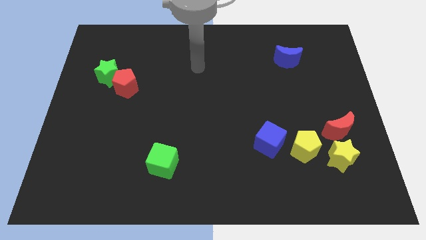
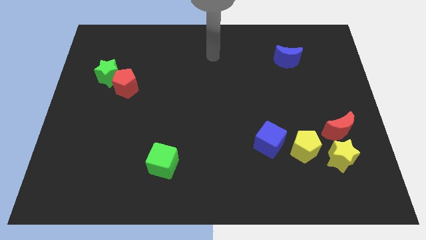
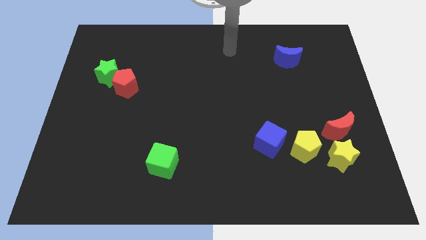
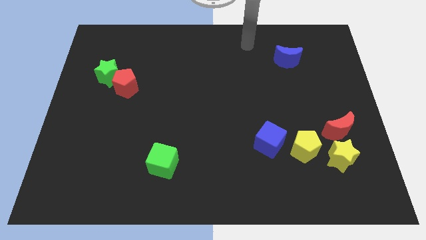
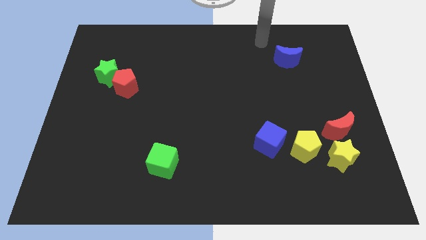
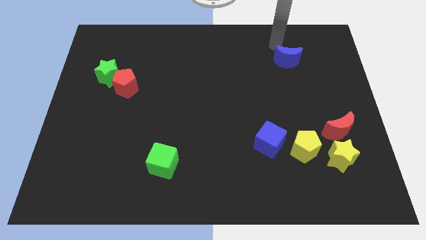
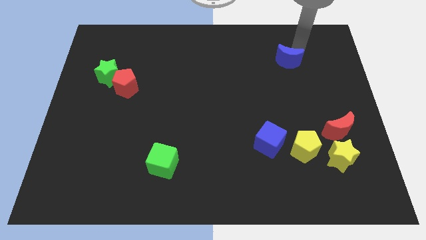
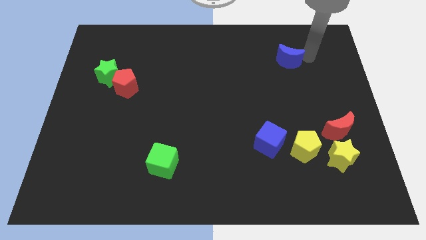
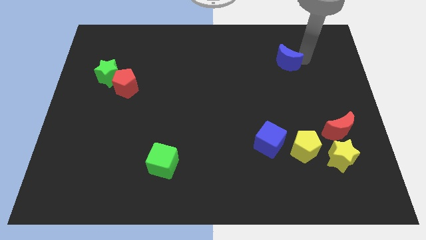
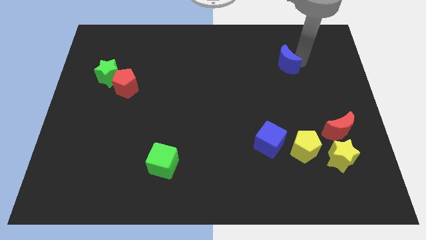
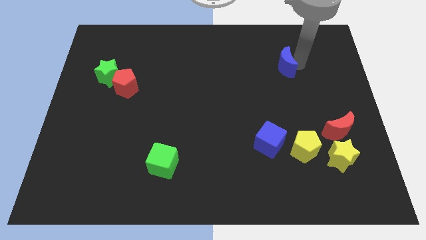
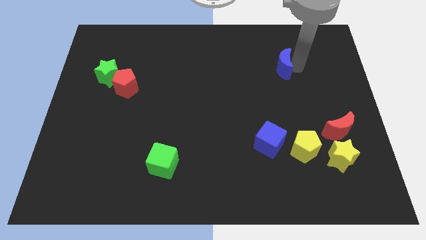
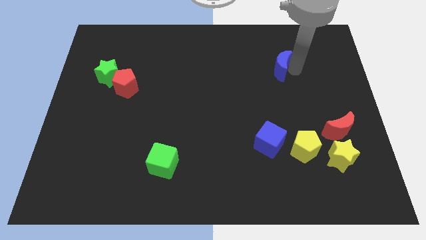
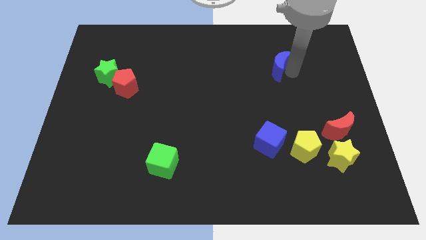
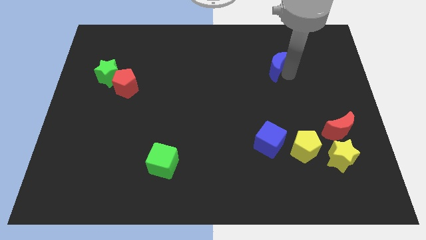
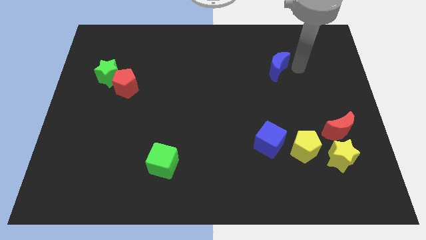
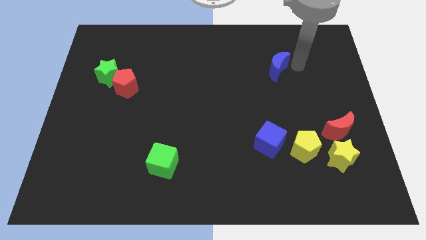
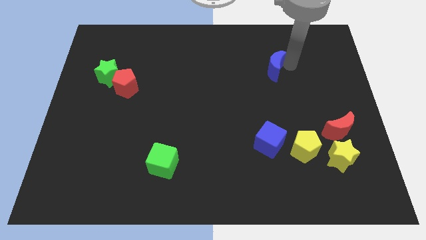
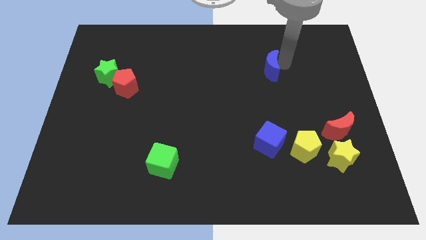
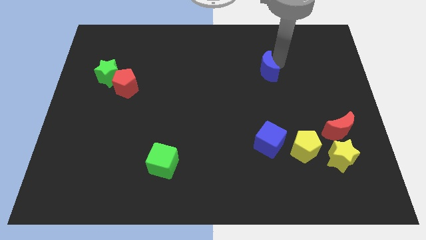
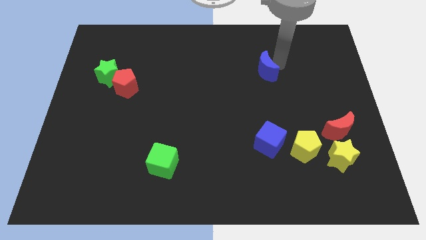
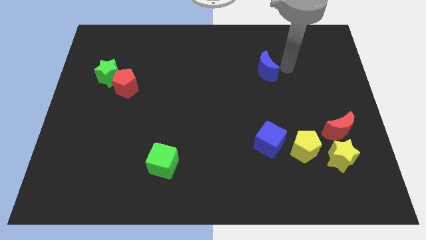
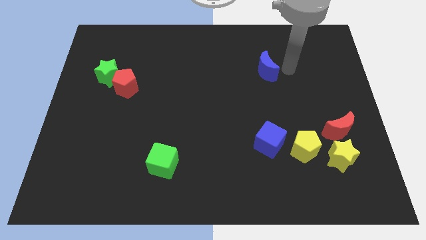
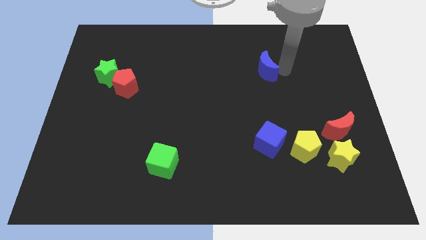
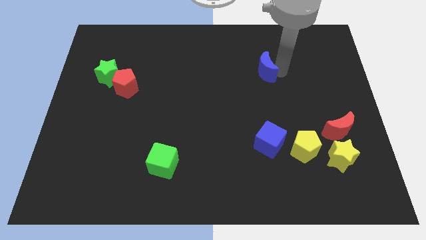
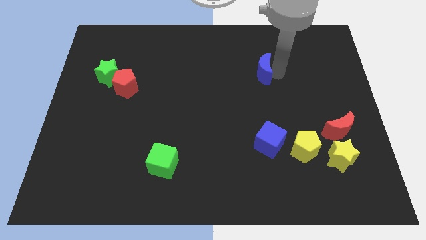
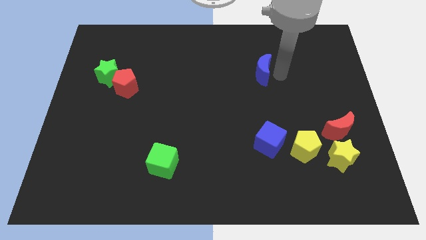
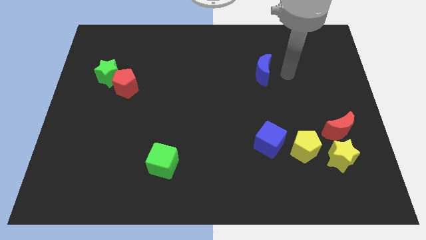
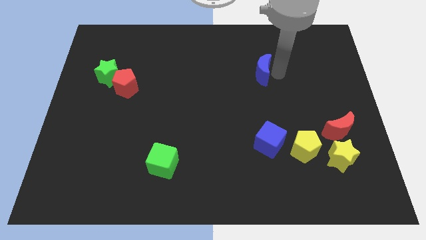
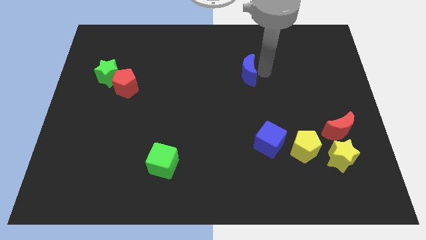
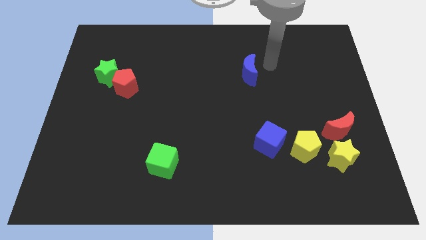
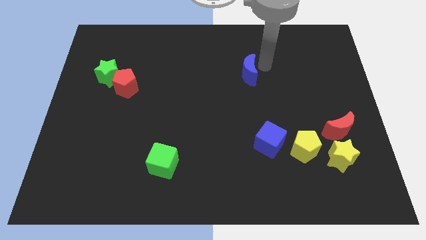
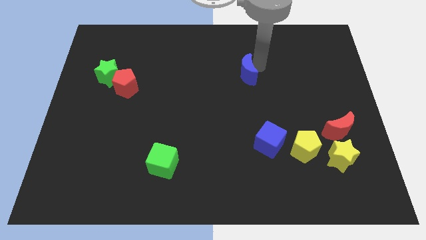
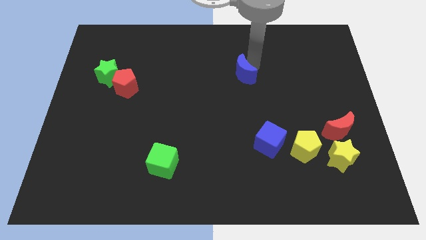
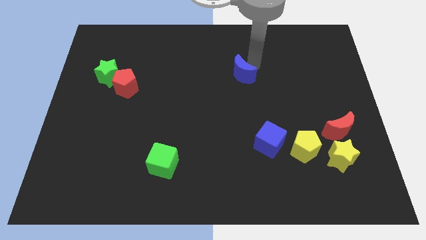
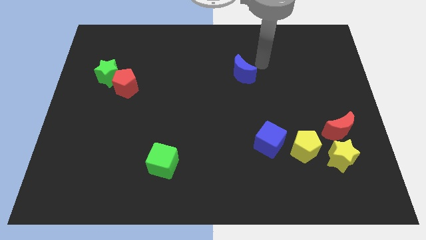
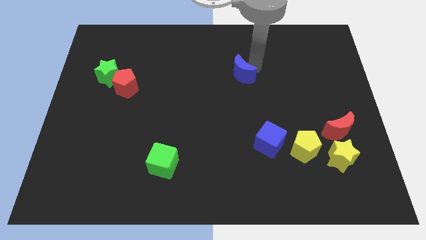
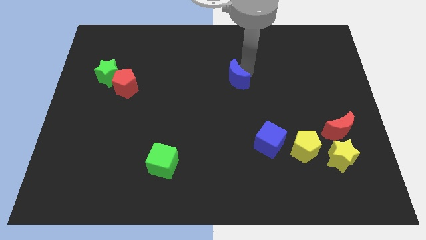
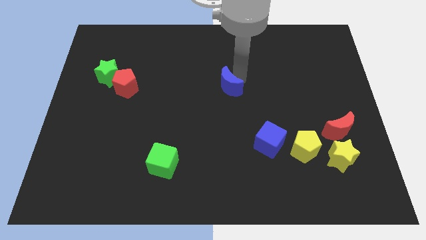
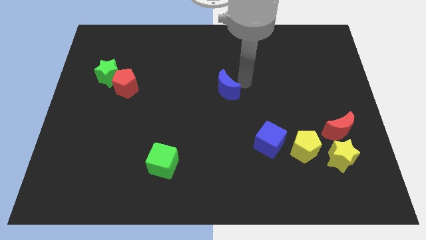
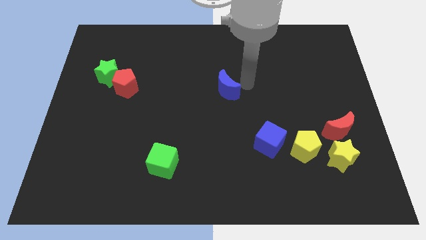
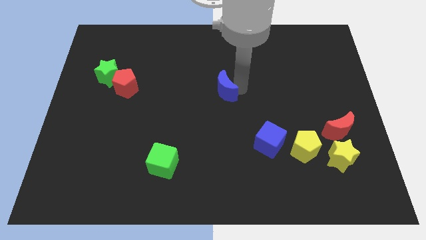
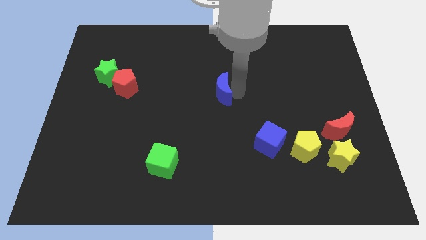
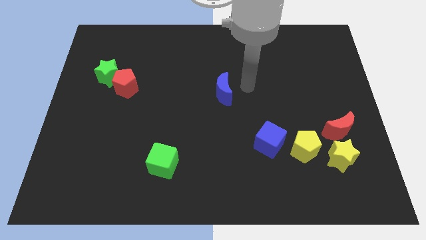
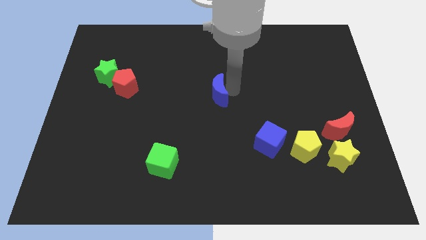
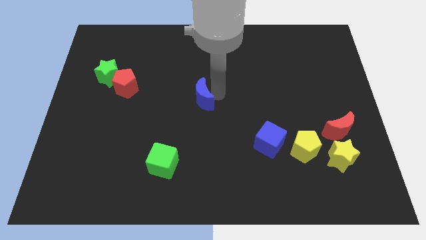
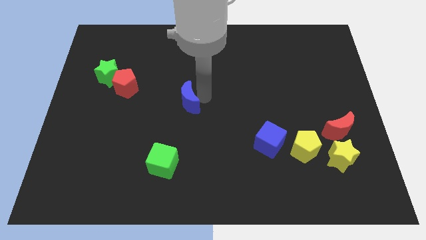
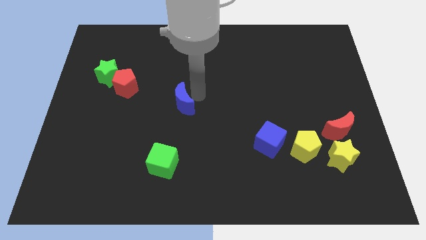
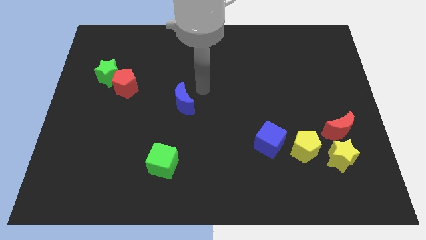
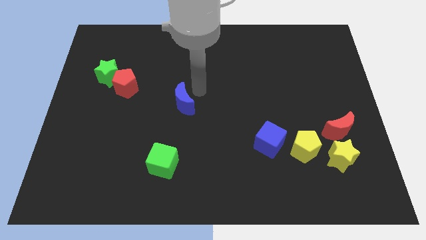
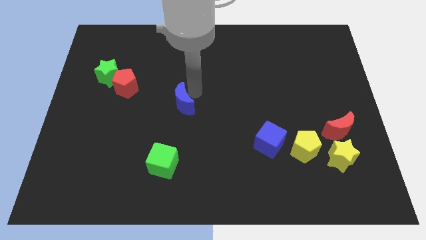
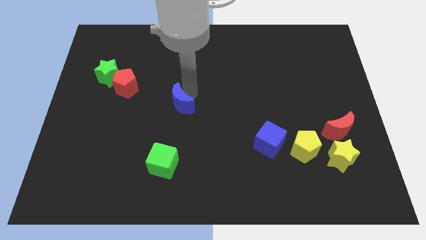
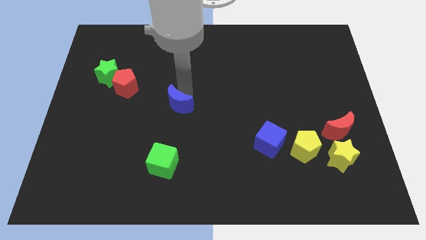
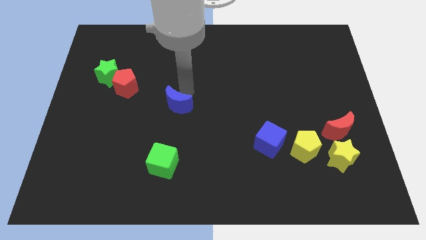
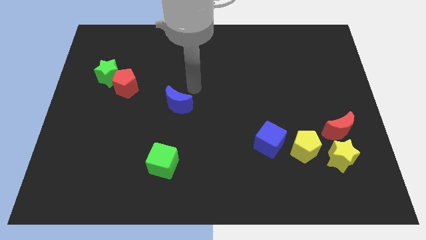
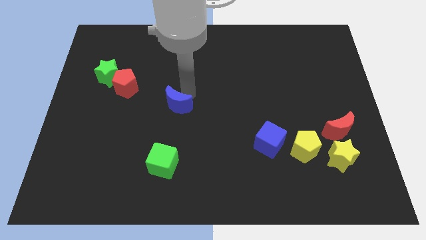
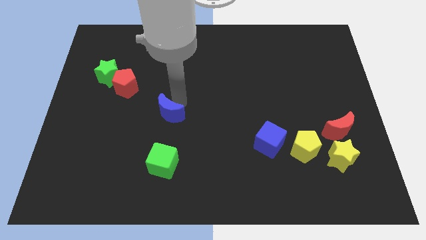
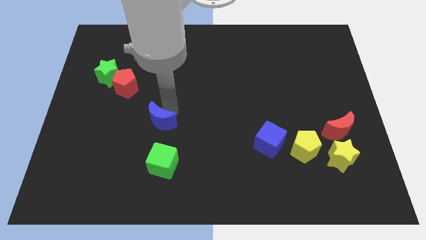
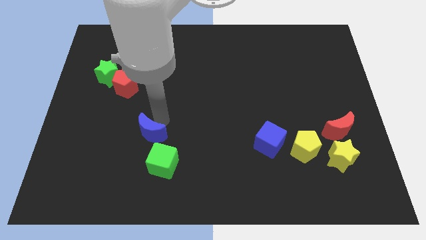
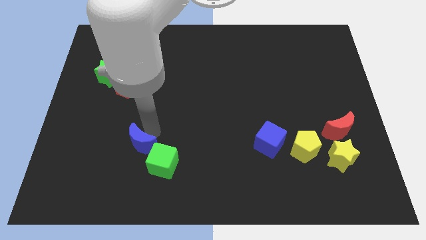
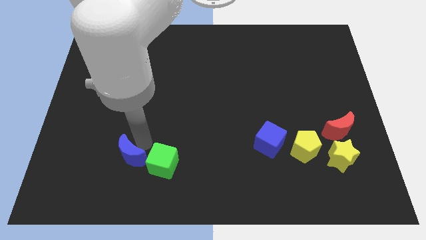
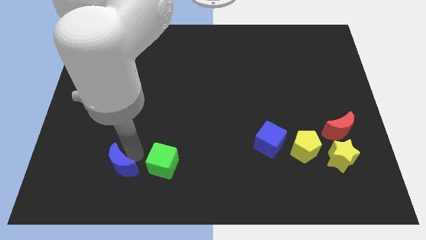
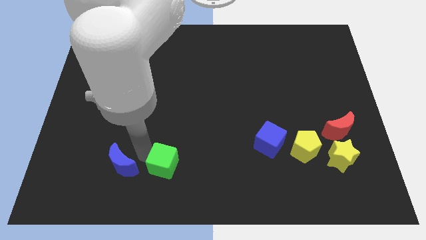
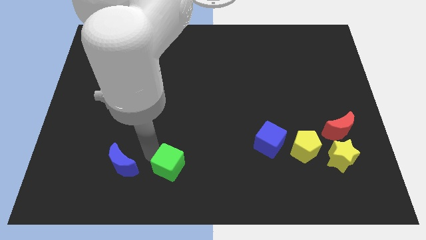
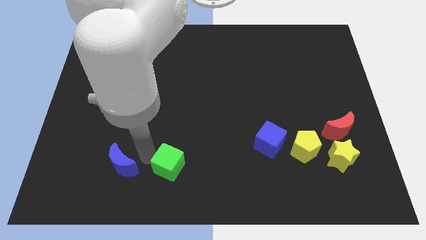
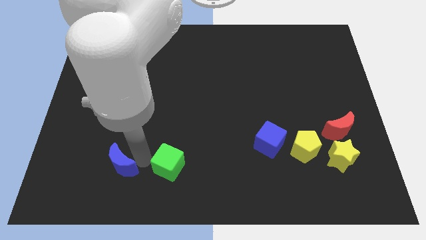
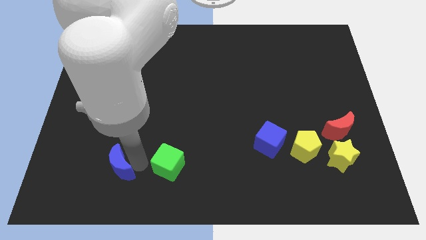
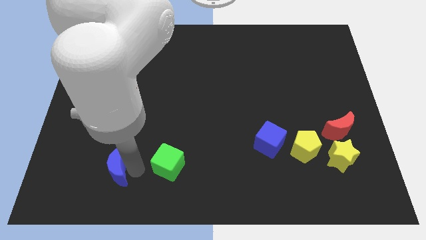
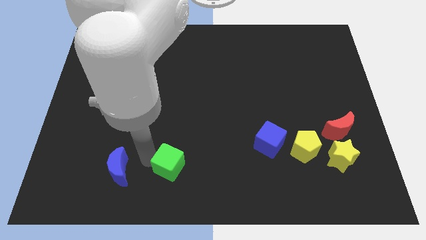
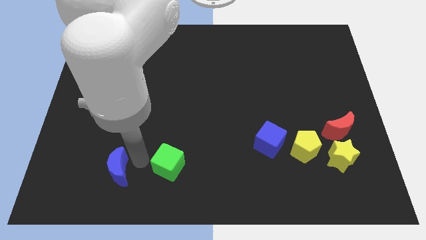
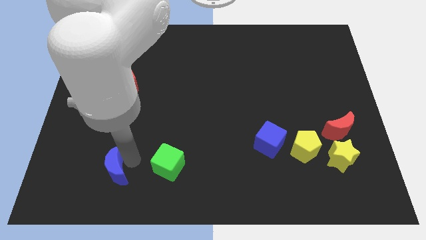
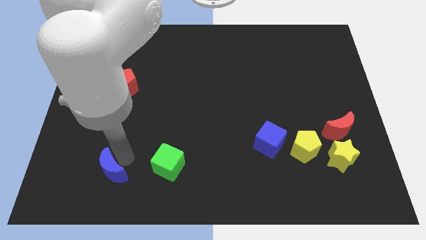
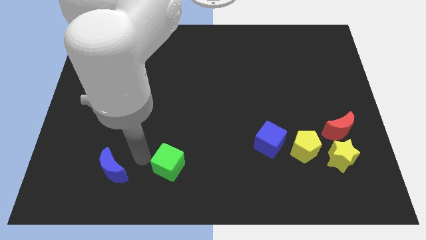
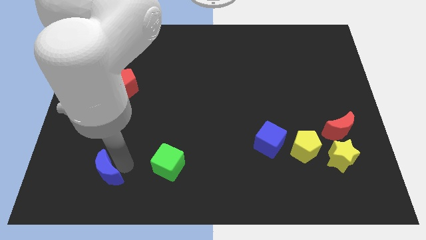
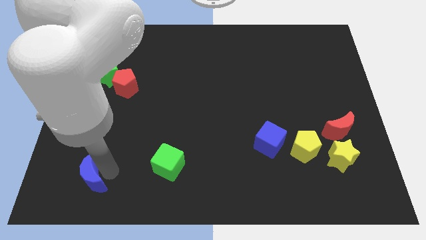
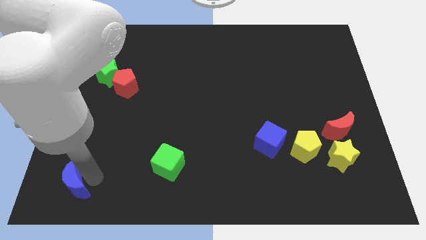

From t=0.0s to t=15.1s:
slide the blue moon to the bottom left of the board

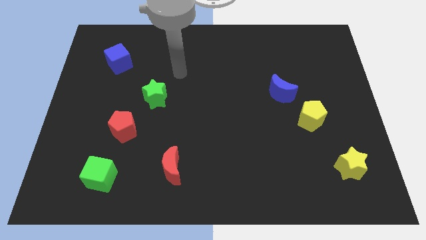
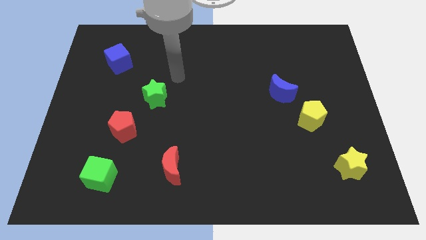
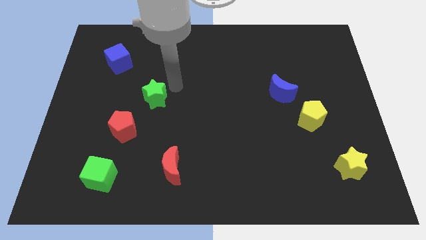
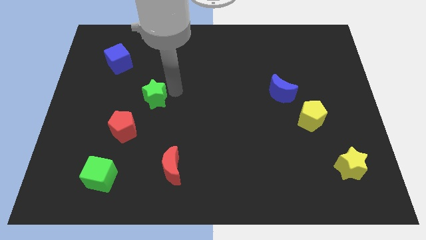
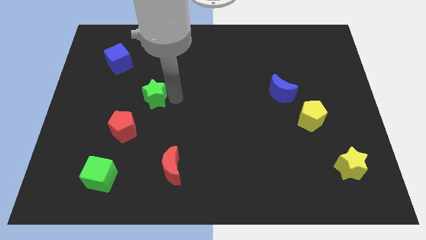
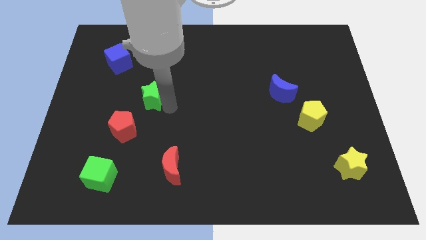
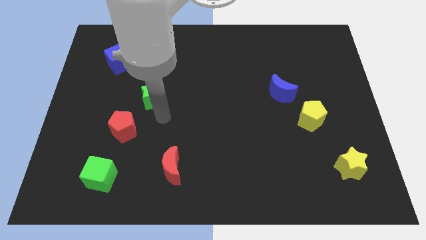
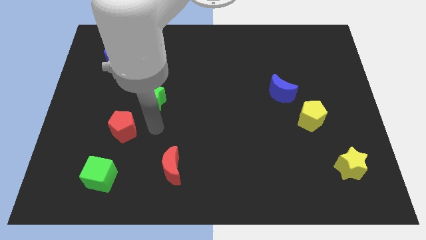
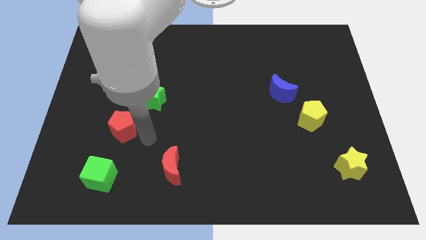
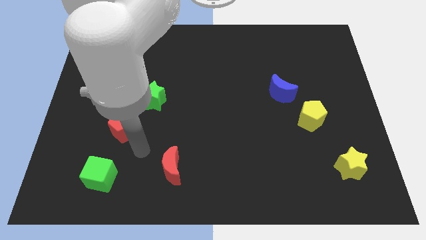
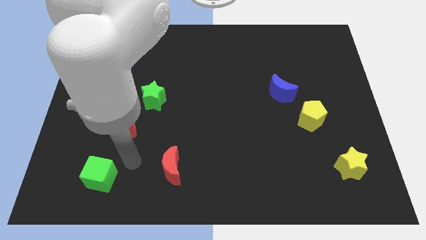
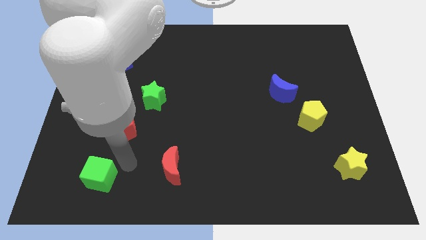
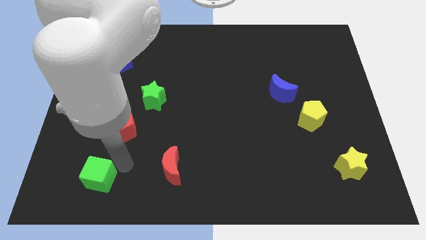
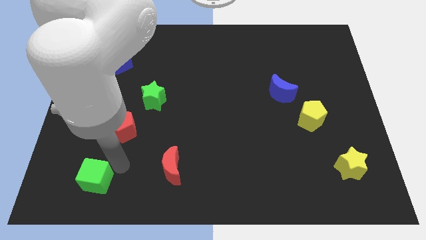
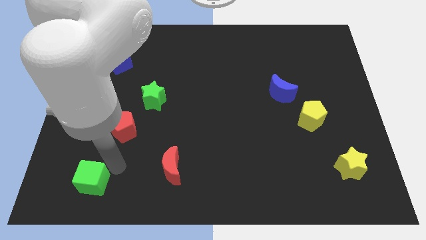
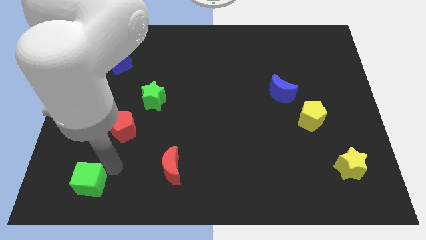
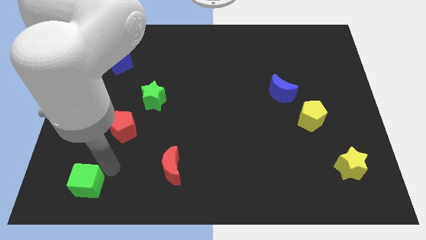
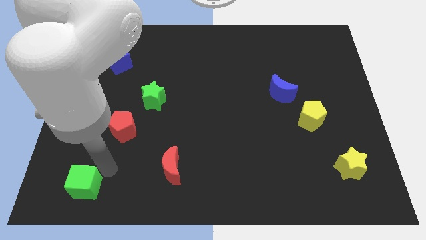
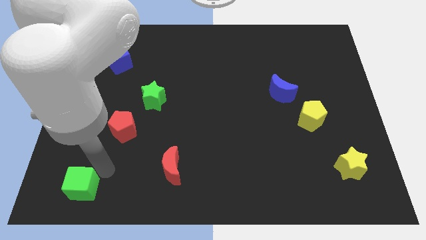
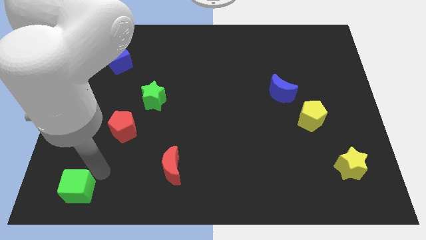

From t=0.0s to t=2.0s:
push the green cube to the bottom left of the board
